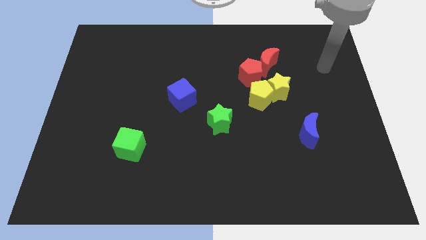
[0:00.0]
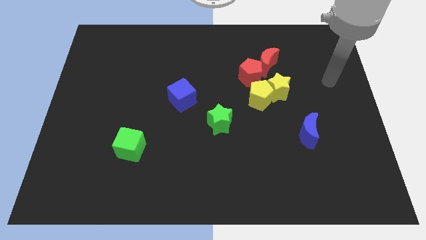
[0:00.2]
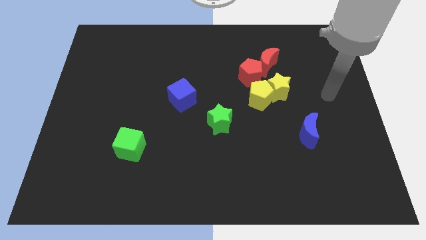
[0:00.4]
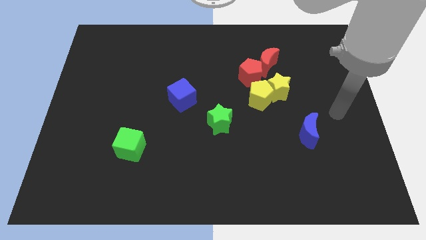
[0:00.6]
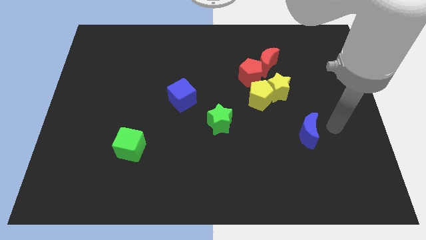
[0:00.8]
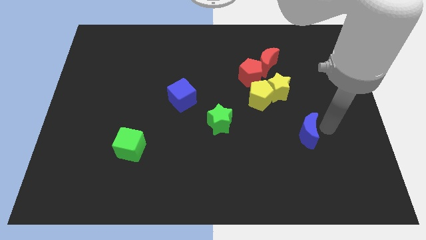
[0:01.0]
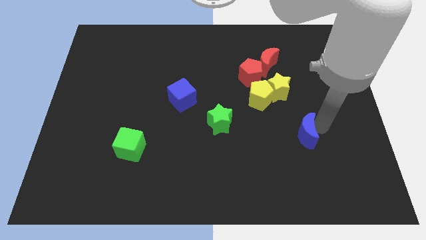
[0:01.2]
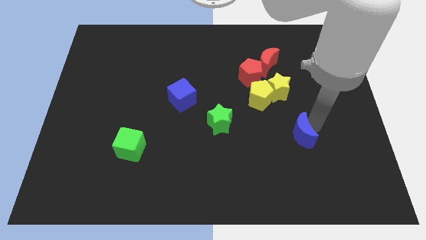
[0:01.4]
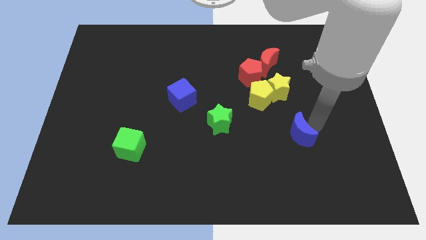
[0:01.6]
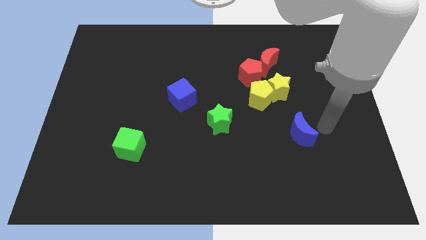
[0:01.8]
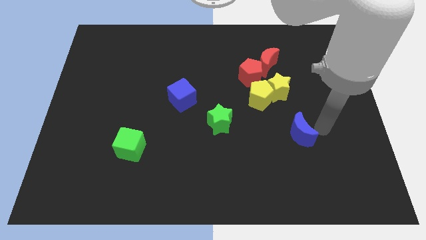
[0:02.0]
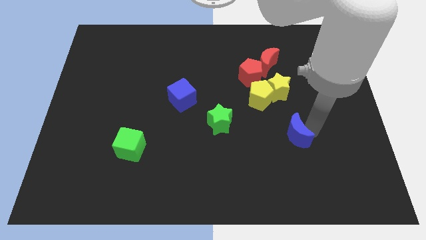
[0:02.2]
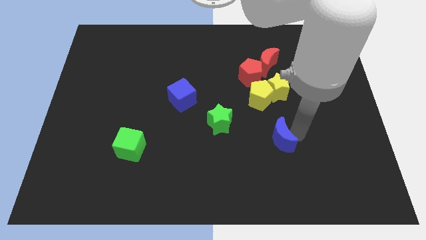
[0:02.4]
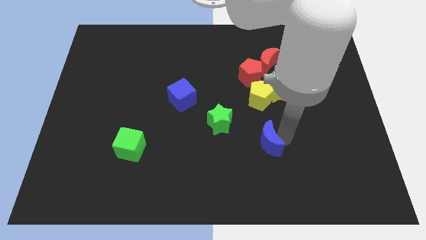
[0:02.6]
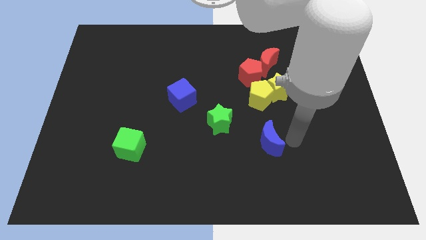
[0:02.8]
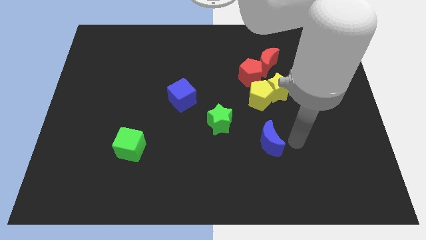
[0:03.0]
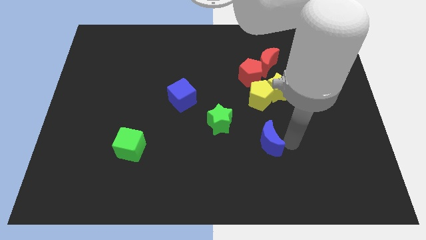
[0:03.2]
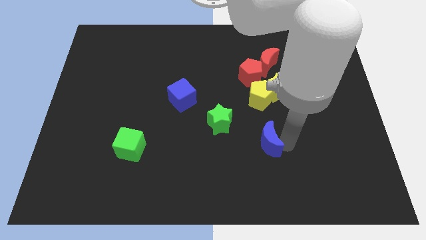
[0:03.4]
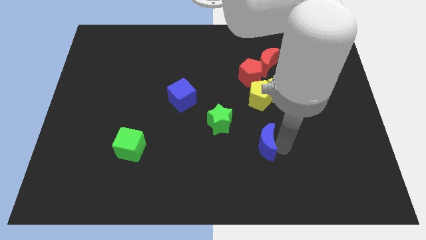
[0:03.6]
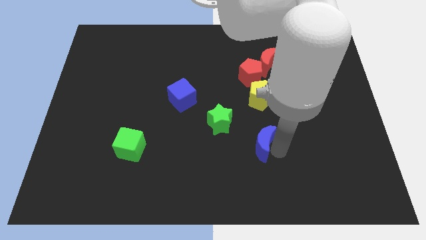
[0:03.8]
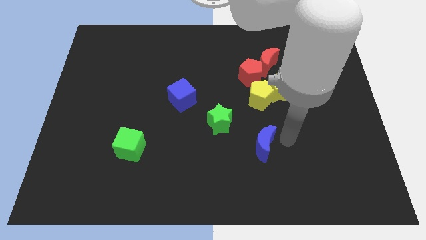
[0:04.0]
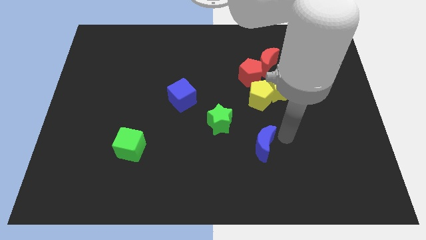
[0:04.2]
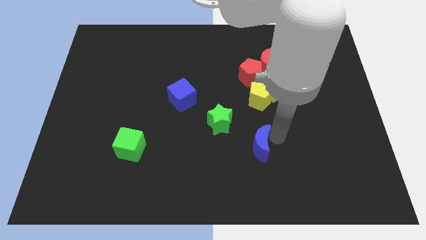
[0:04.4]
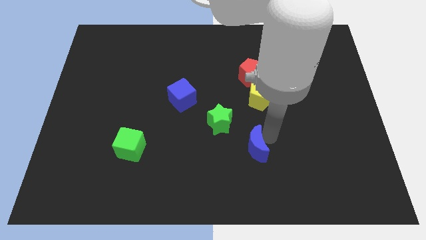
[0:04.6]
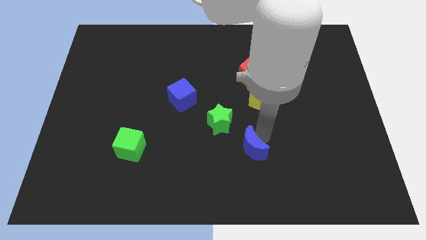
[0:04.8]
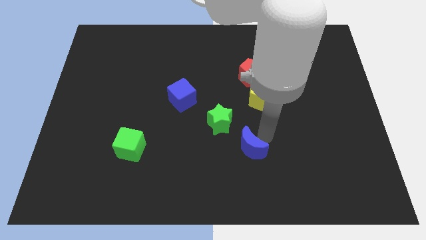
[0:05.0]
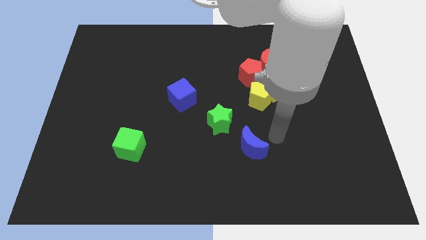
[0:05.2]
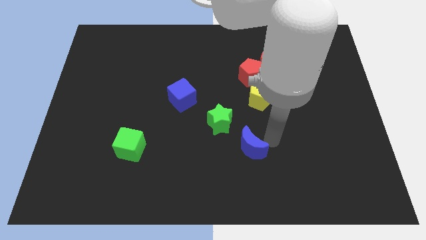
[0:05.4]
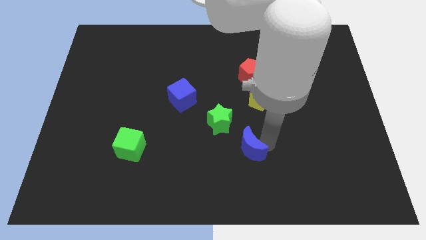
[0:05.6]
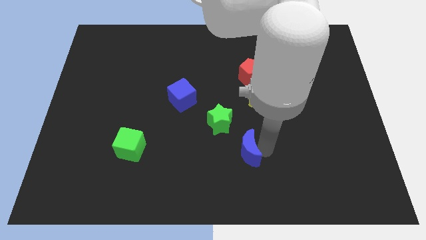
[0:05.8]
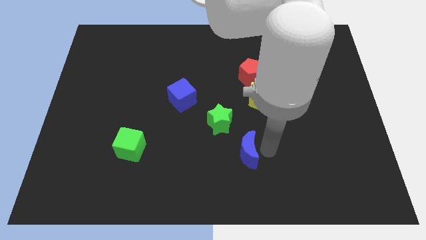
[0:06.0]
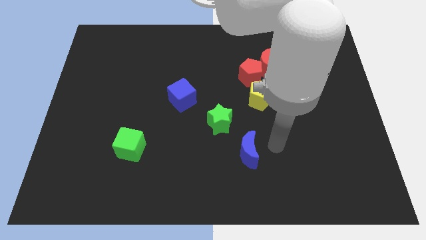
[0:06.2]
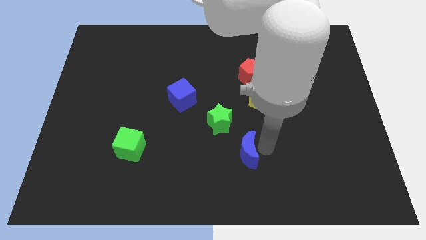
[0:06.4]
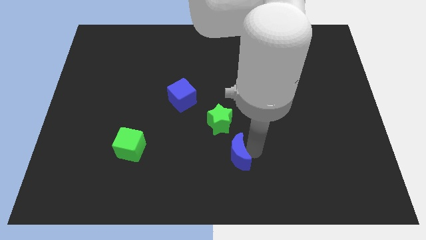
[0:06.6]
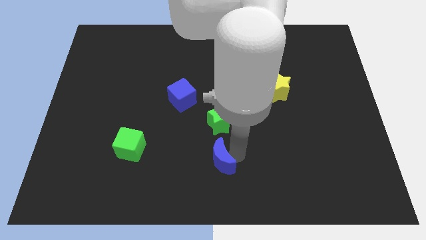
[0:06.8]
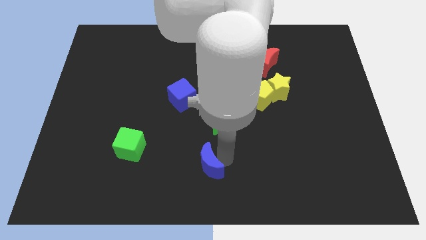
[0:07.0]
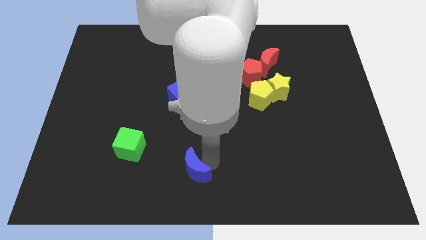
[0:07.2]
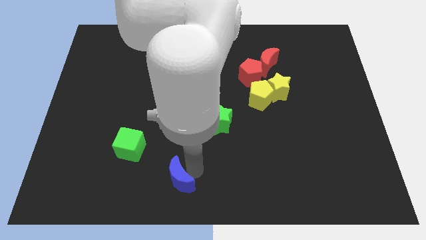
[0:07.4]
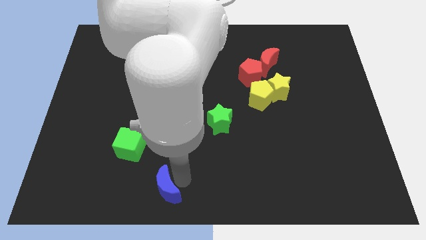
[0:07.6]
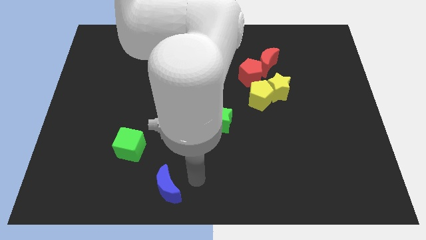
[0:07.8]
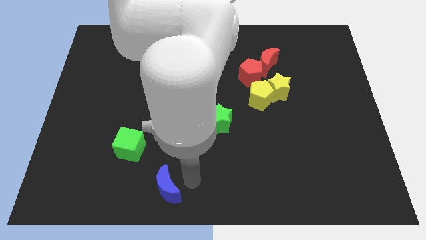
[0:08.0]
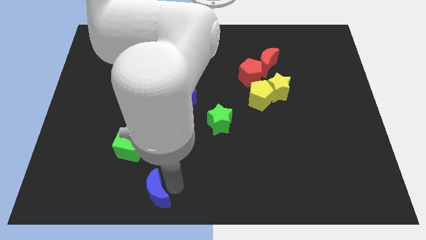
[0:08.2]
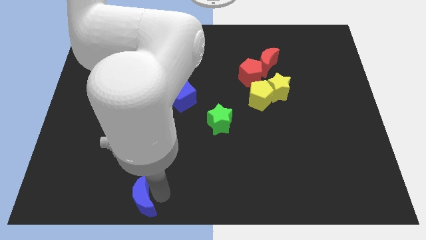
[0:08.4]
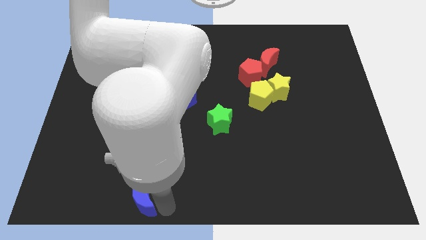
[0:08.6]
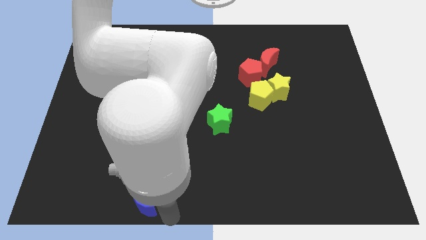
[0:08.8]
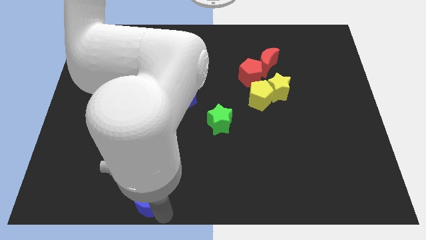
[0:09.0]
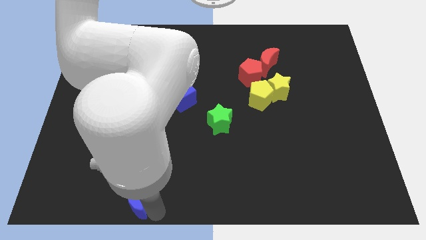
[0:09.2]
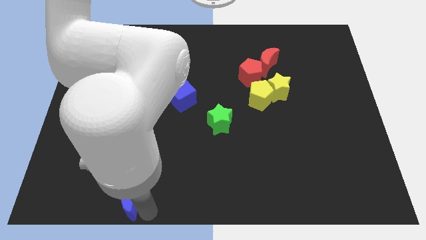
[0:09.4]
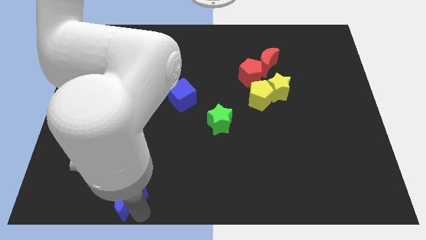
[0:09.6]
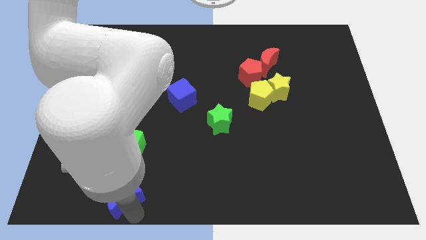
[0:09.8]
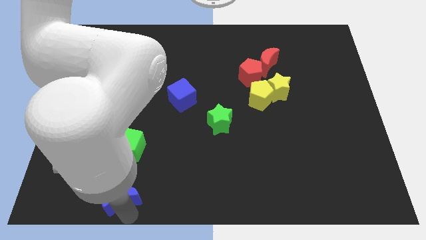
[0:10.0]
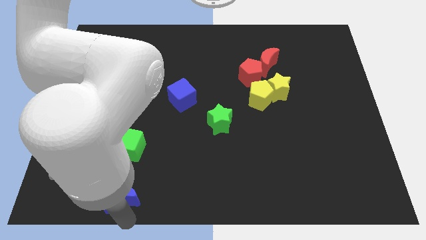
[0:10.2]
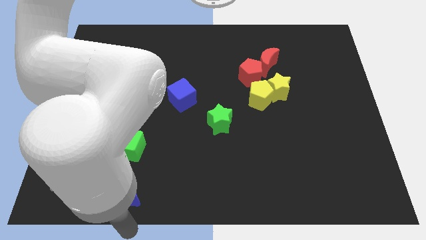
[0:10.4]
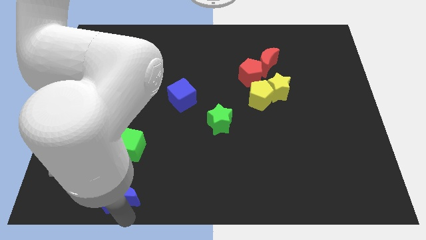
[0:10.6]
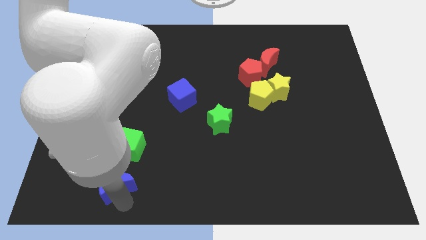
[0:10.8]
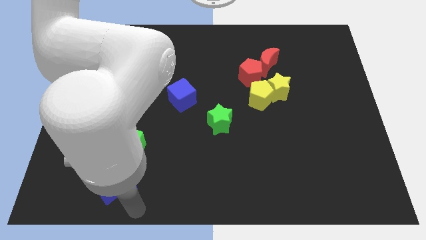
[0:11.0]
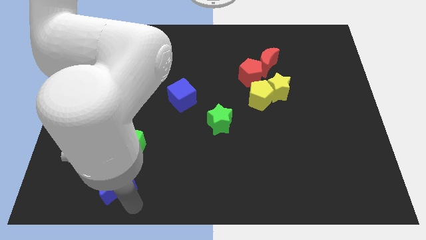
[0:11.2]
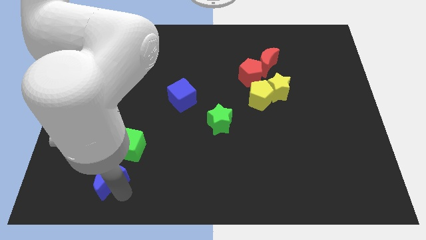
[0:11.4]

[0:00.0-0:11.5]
put the blue moon to the bottom left of the green cube

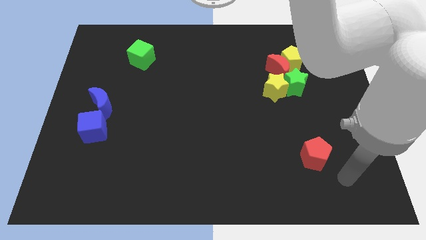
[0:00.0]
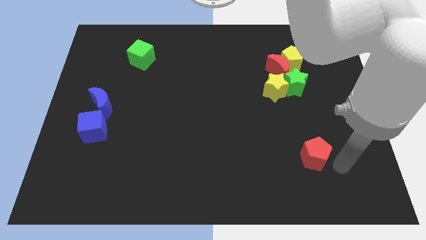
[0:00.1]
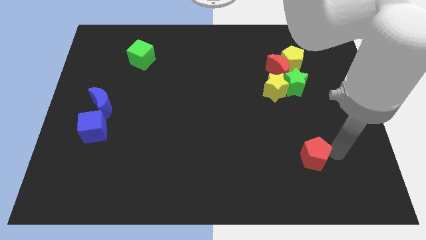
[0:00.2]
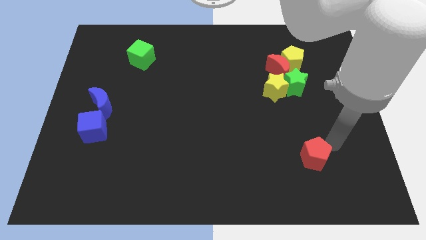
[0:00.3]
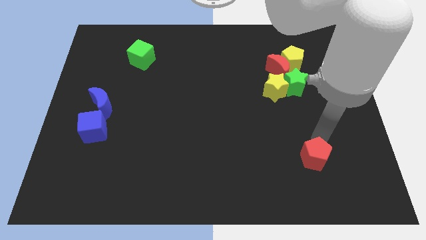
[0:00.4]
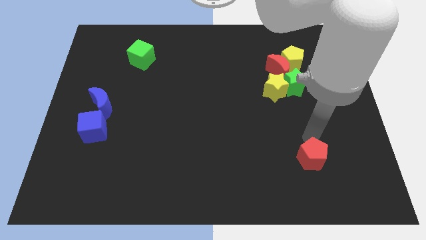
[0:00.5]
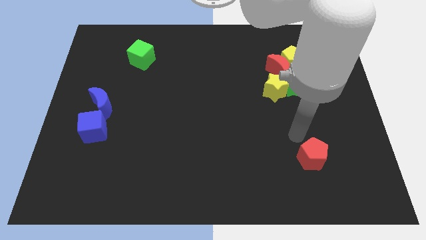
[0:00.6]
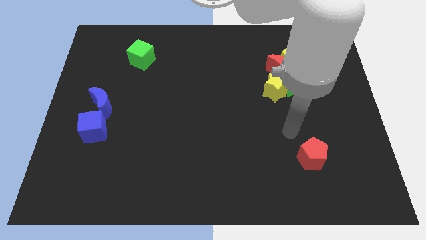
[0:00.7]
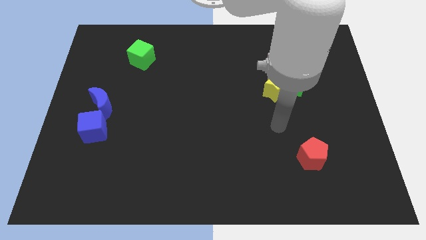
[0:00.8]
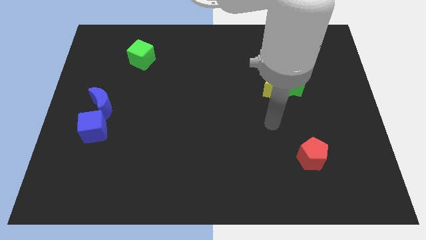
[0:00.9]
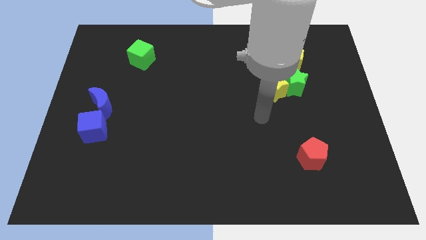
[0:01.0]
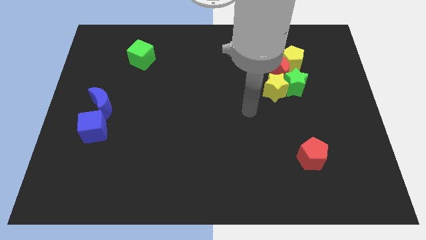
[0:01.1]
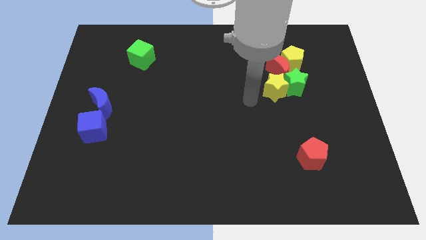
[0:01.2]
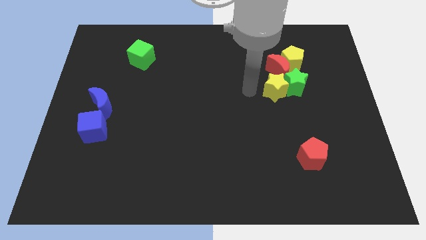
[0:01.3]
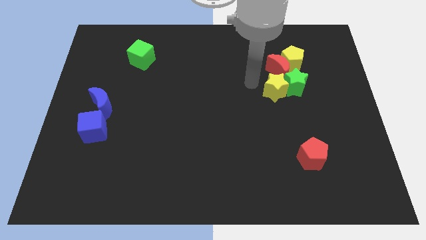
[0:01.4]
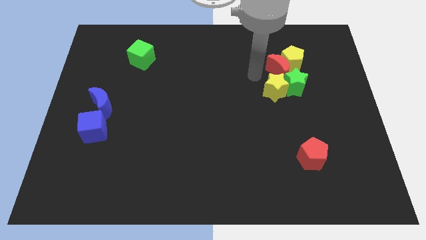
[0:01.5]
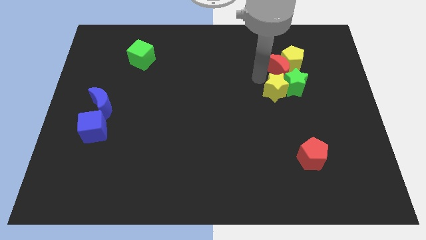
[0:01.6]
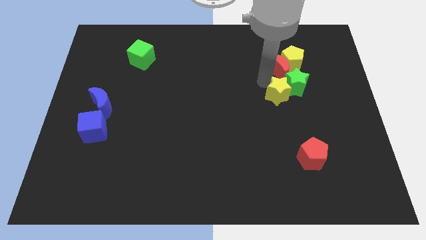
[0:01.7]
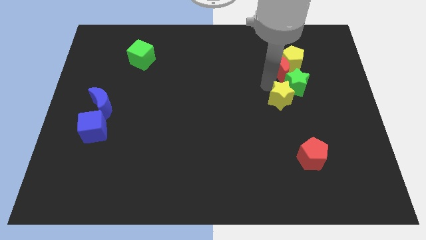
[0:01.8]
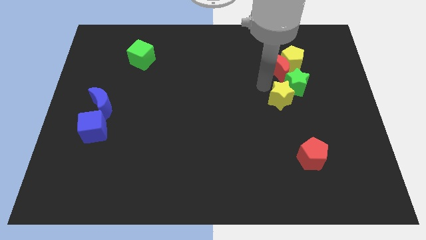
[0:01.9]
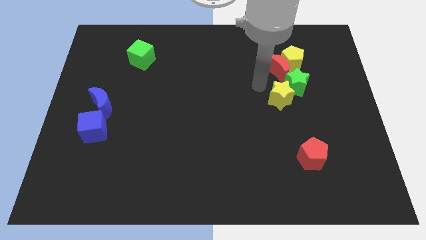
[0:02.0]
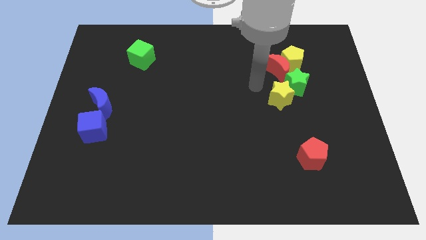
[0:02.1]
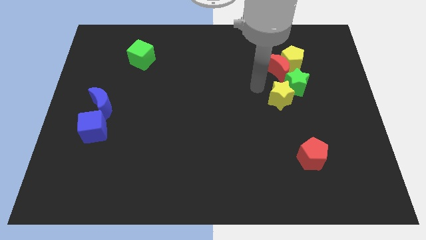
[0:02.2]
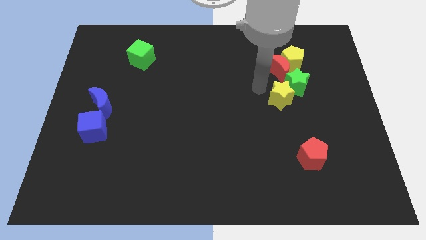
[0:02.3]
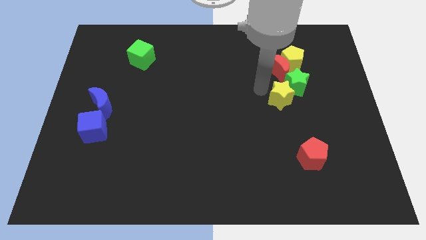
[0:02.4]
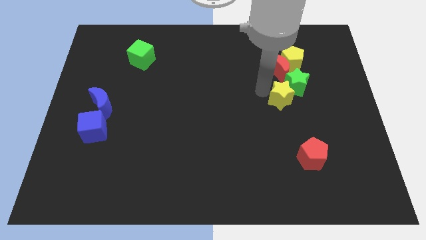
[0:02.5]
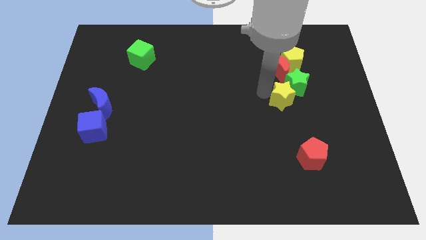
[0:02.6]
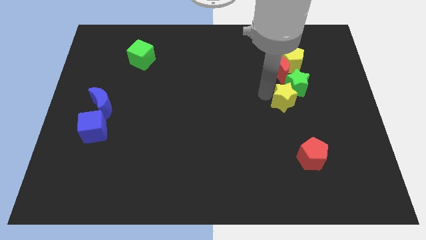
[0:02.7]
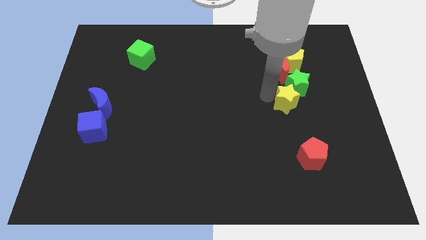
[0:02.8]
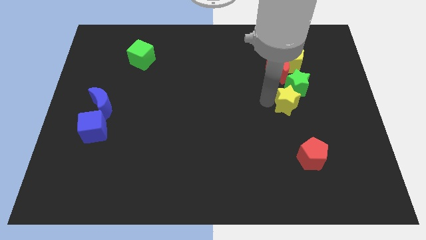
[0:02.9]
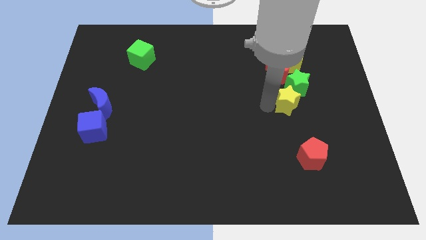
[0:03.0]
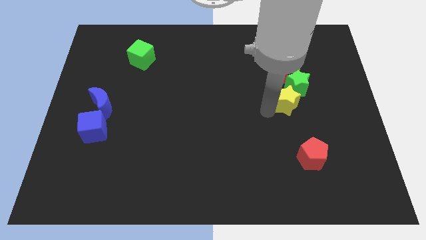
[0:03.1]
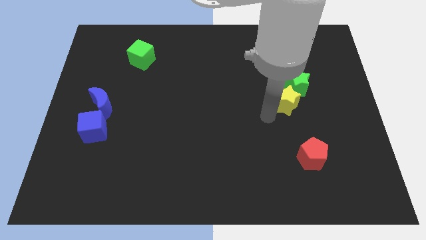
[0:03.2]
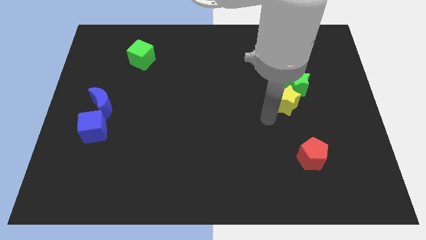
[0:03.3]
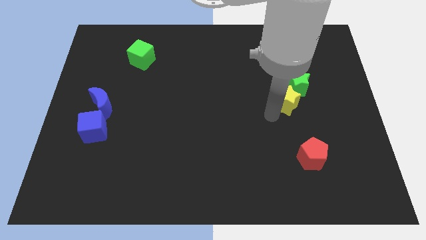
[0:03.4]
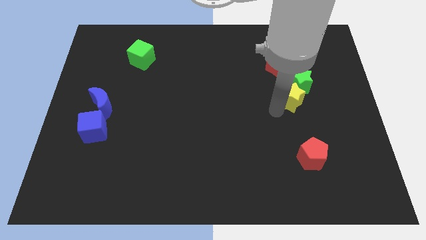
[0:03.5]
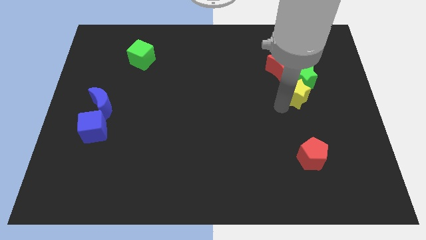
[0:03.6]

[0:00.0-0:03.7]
push the yellow star to the bottom right side of the red moon
